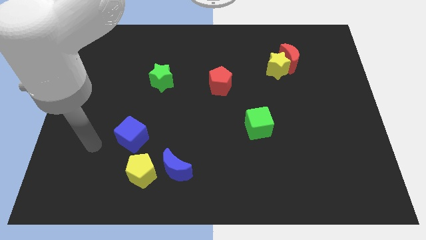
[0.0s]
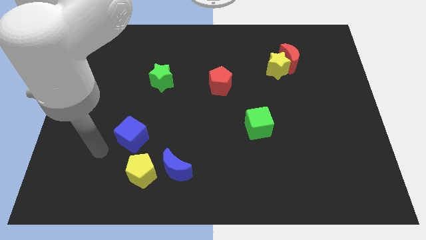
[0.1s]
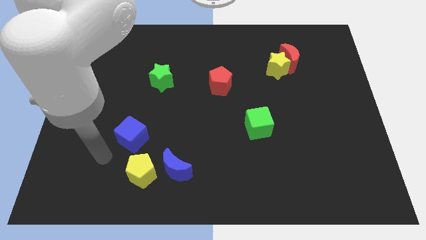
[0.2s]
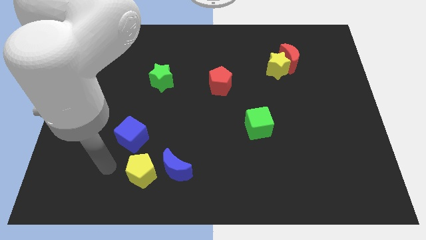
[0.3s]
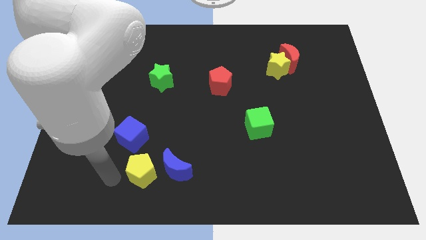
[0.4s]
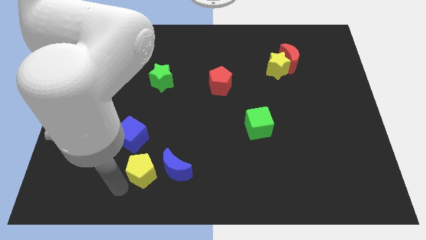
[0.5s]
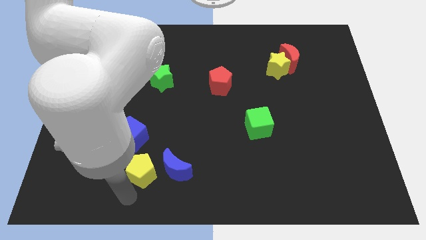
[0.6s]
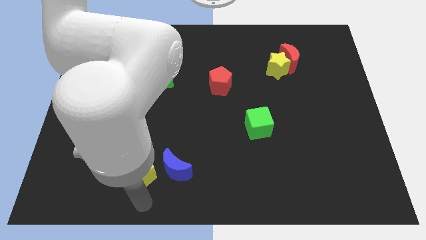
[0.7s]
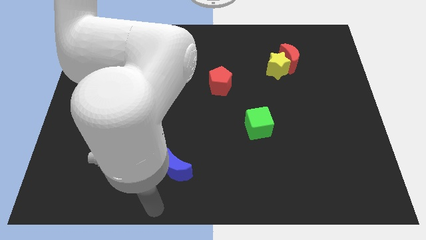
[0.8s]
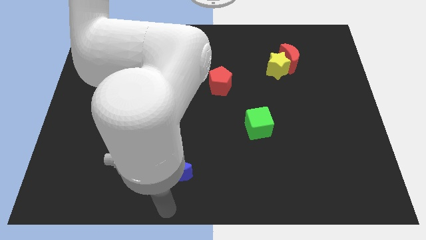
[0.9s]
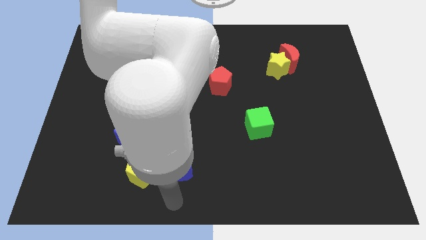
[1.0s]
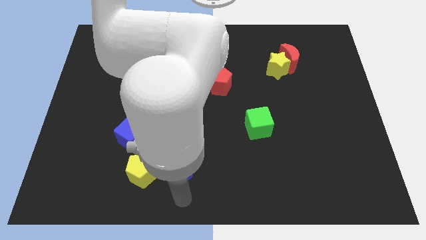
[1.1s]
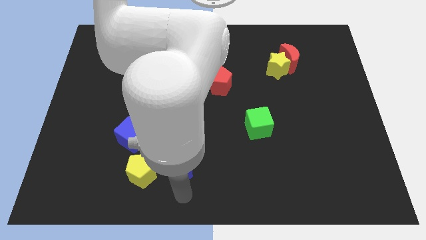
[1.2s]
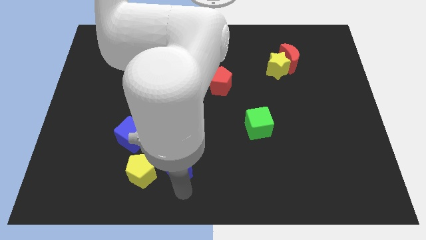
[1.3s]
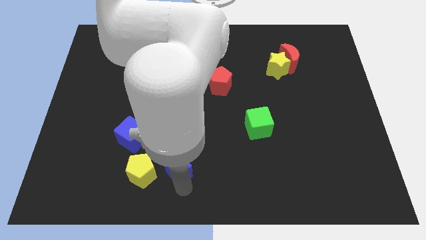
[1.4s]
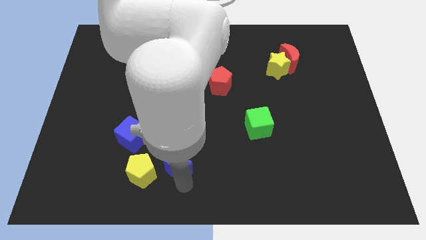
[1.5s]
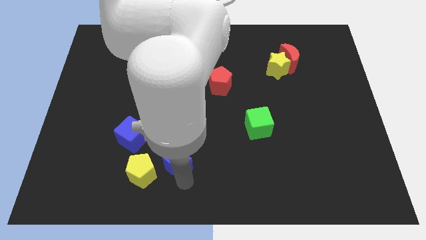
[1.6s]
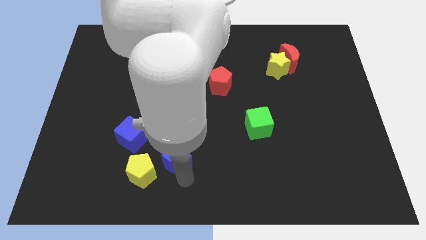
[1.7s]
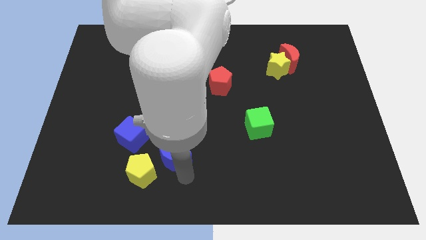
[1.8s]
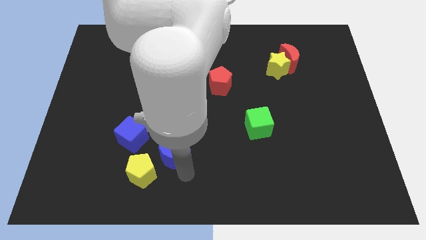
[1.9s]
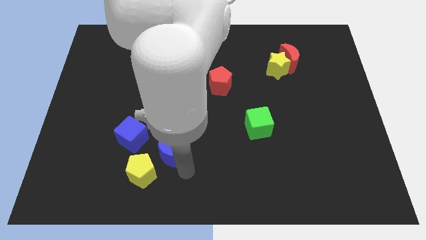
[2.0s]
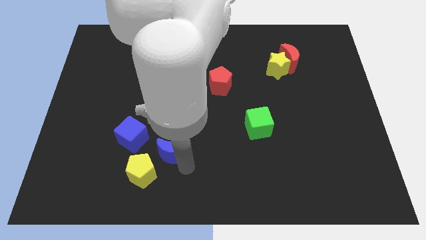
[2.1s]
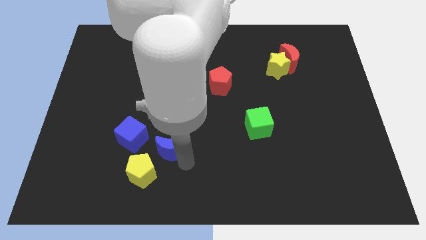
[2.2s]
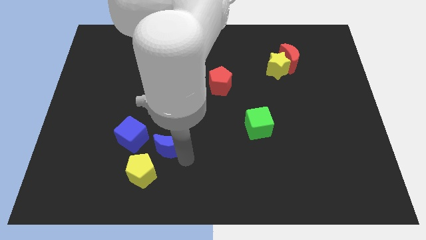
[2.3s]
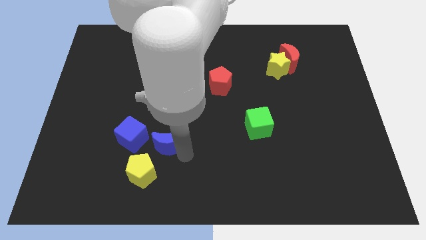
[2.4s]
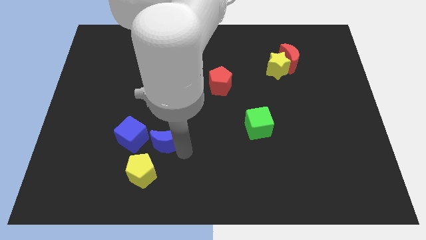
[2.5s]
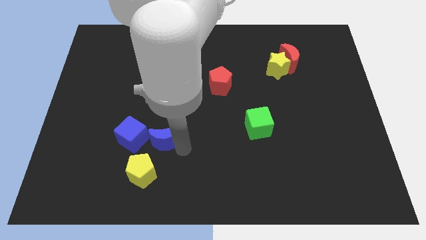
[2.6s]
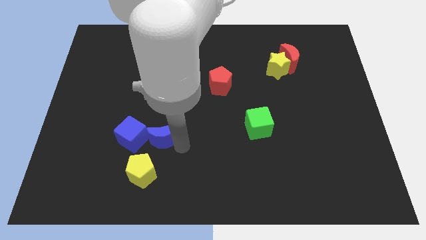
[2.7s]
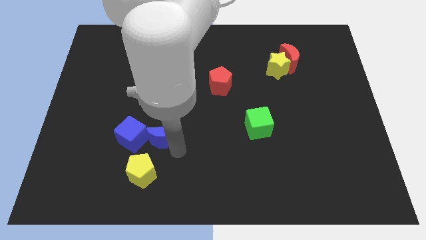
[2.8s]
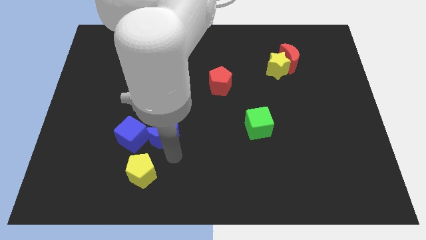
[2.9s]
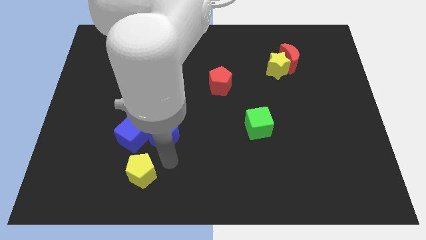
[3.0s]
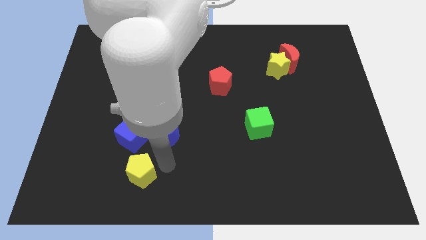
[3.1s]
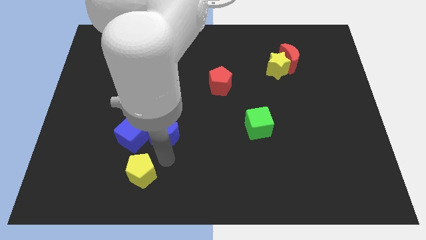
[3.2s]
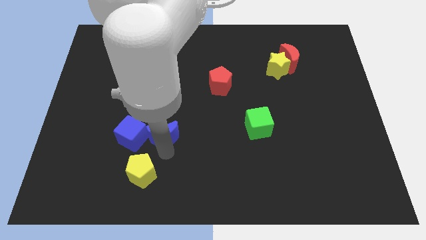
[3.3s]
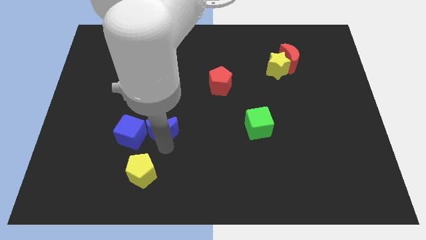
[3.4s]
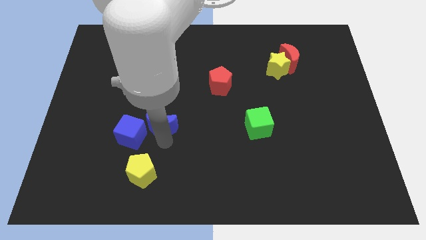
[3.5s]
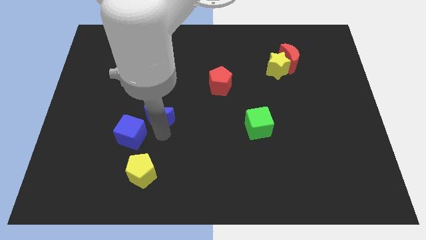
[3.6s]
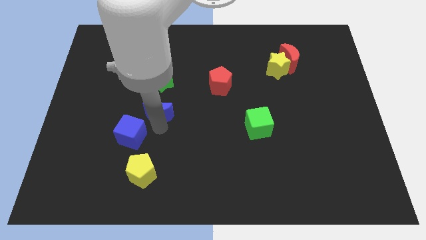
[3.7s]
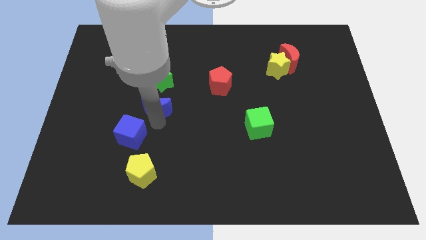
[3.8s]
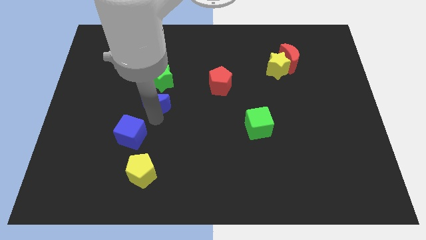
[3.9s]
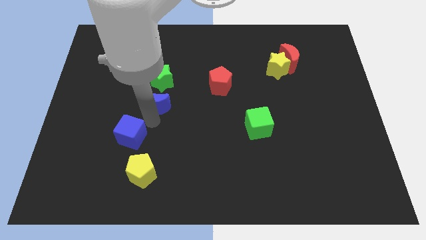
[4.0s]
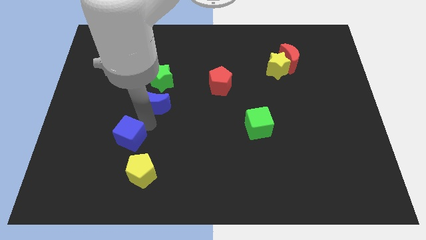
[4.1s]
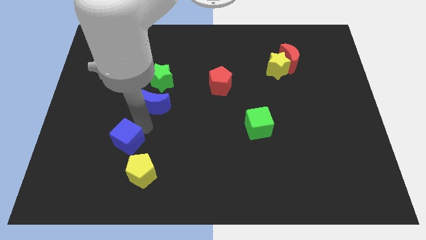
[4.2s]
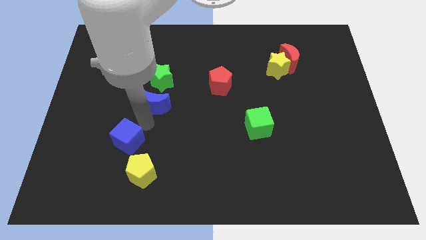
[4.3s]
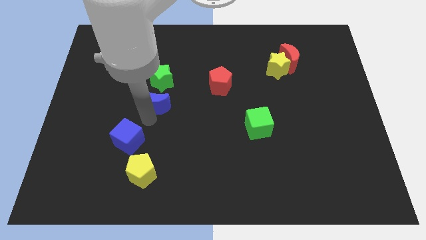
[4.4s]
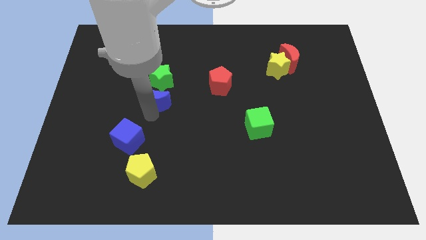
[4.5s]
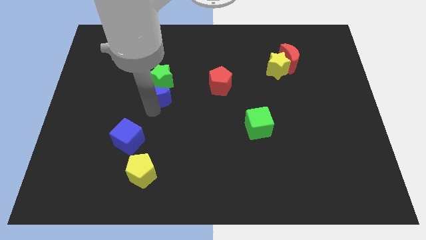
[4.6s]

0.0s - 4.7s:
push the blue moon towards the green star

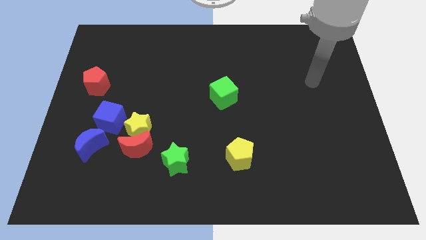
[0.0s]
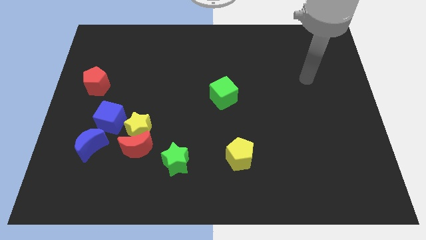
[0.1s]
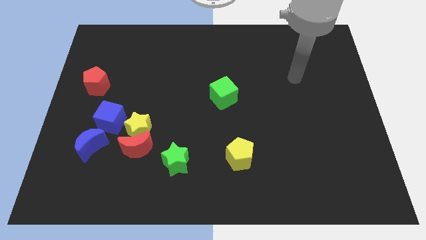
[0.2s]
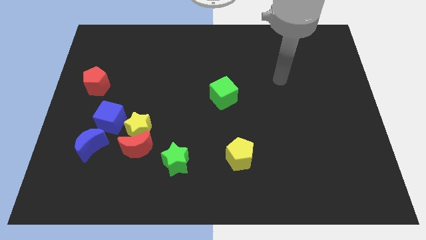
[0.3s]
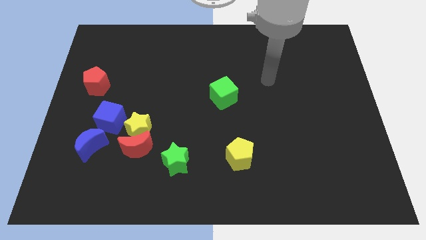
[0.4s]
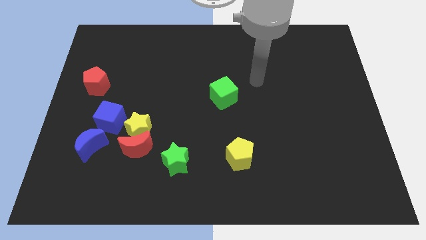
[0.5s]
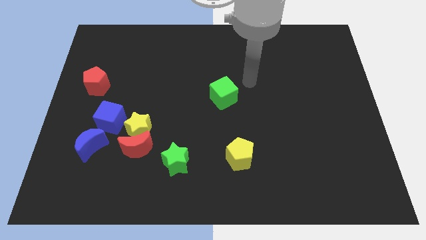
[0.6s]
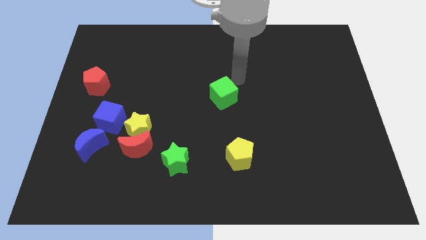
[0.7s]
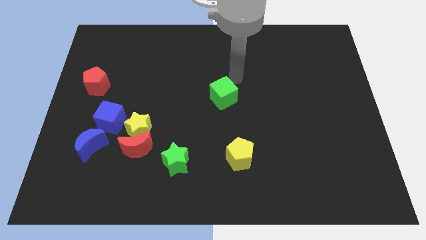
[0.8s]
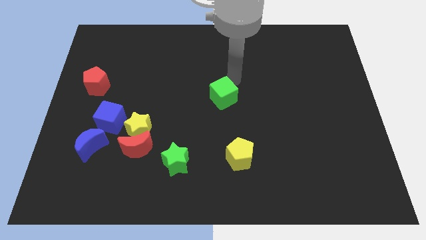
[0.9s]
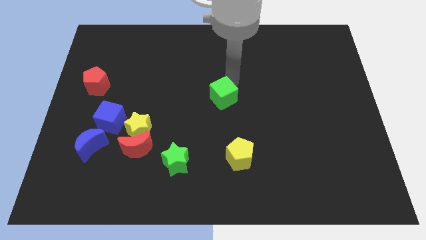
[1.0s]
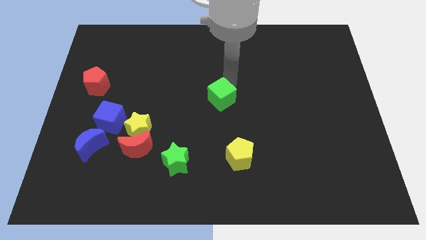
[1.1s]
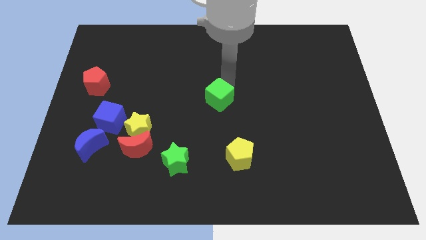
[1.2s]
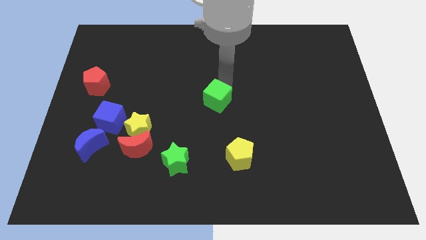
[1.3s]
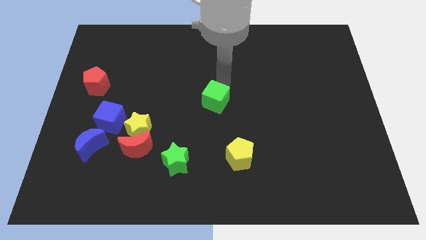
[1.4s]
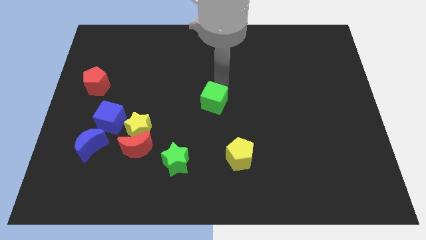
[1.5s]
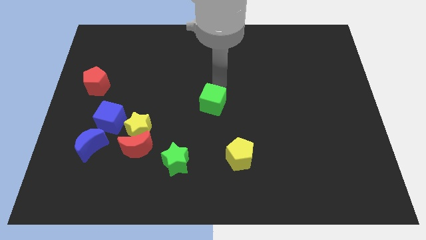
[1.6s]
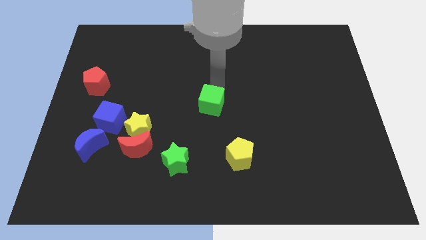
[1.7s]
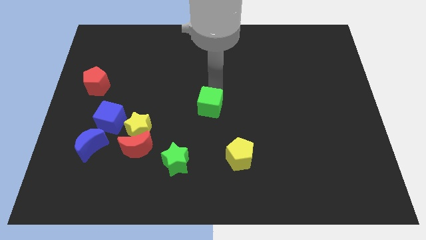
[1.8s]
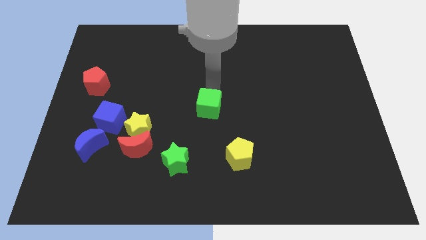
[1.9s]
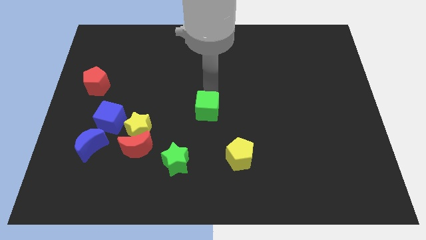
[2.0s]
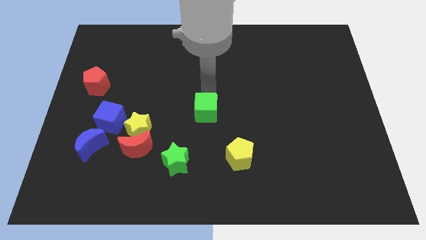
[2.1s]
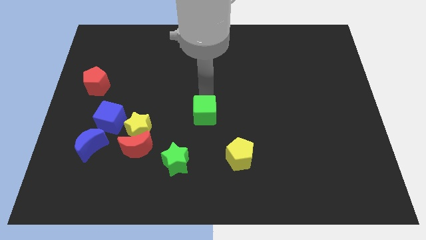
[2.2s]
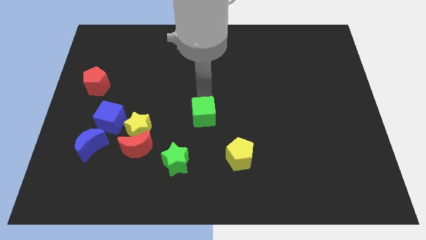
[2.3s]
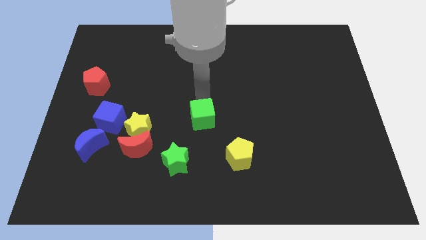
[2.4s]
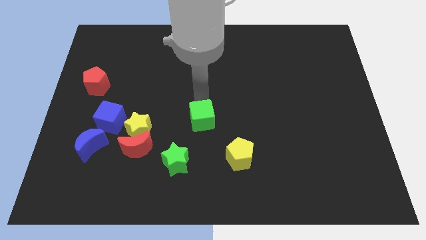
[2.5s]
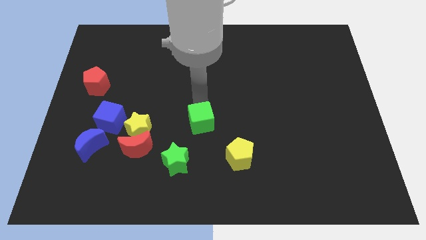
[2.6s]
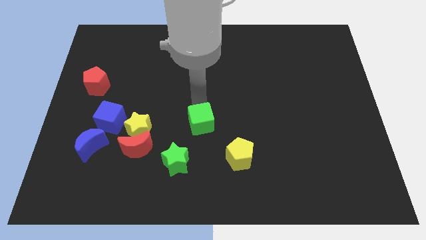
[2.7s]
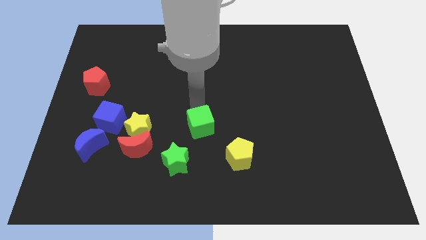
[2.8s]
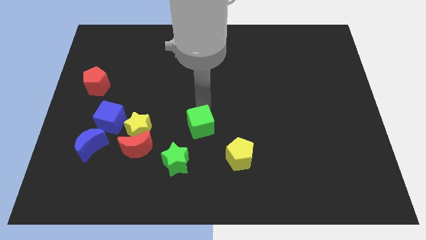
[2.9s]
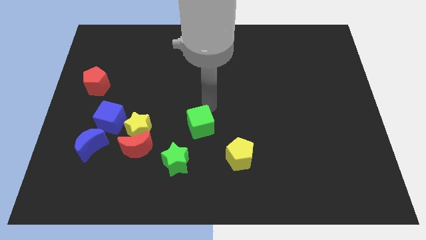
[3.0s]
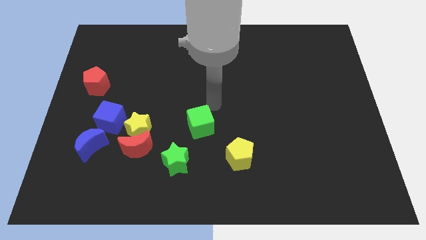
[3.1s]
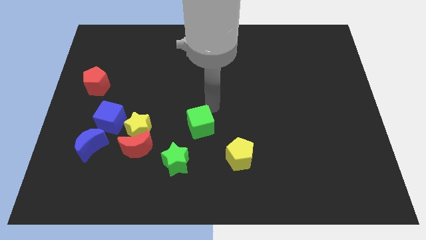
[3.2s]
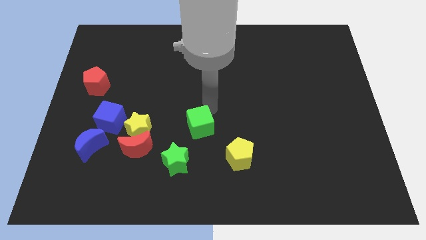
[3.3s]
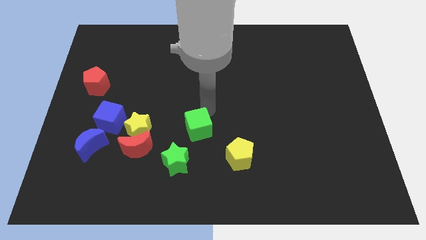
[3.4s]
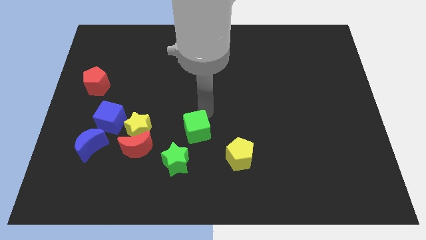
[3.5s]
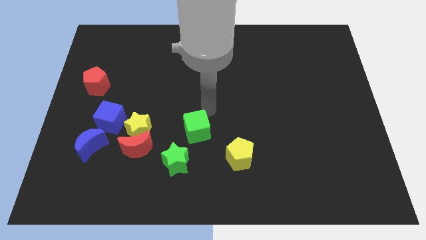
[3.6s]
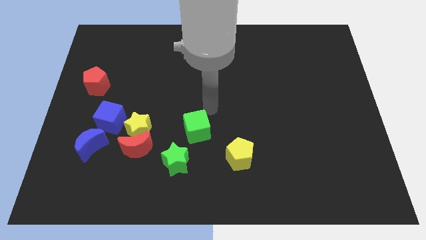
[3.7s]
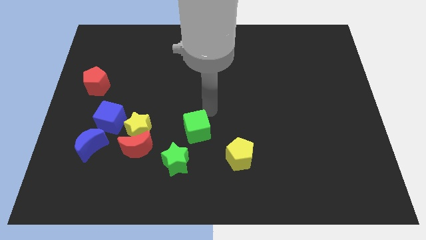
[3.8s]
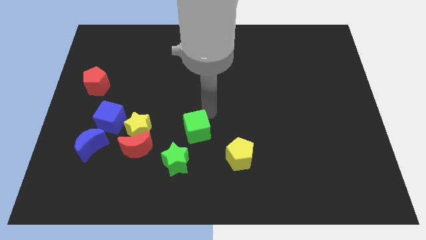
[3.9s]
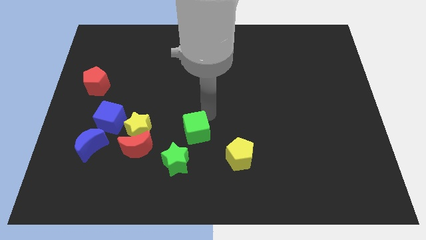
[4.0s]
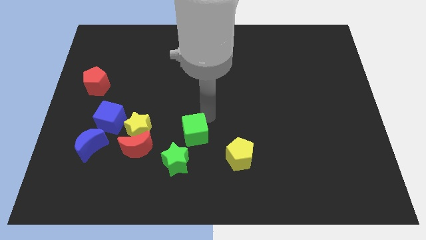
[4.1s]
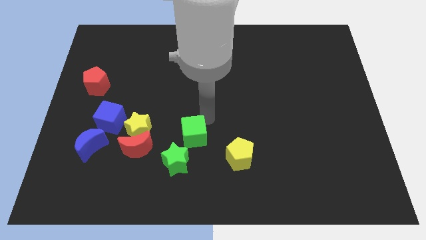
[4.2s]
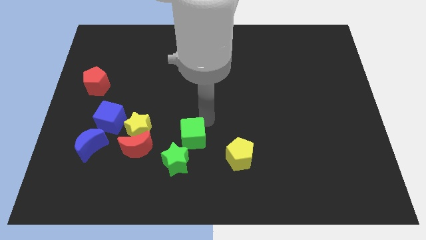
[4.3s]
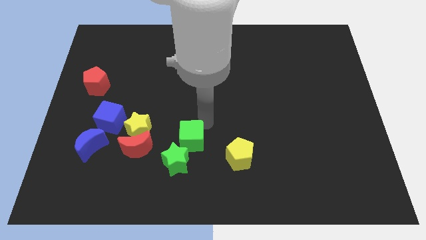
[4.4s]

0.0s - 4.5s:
push the green cube to the green star
